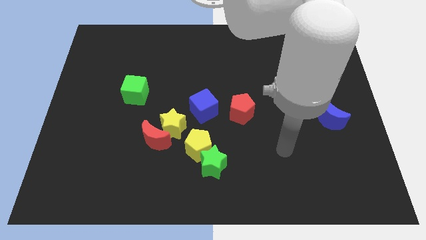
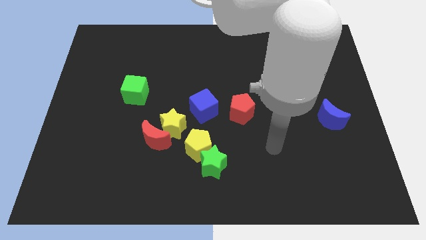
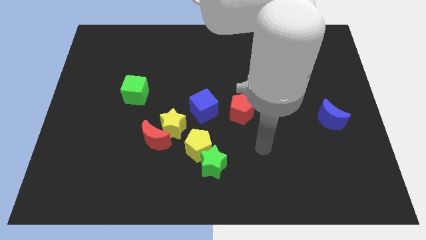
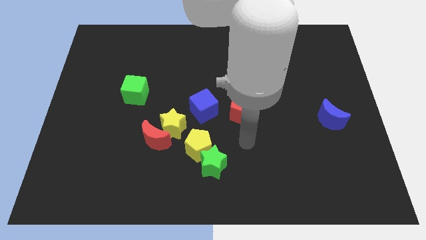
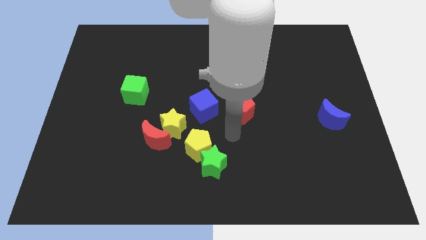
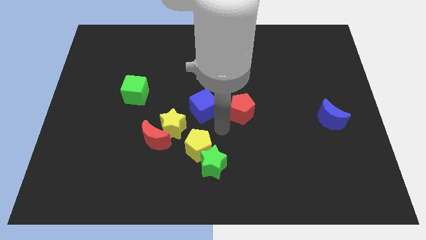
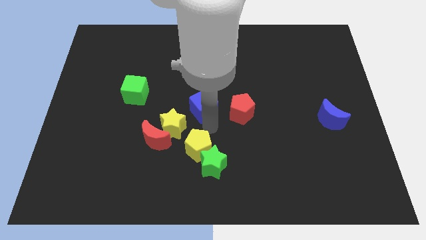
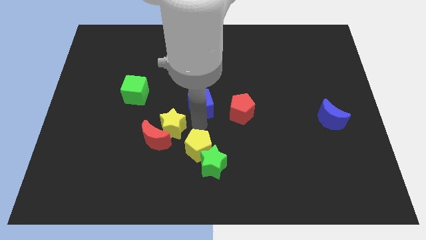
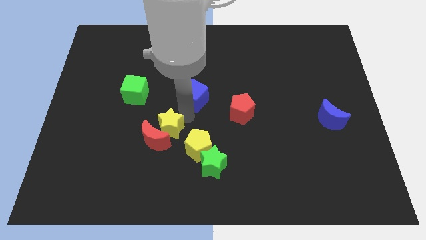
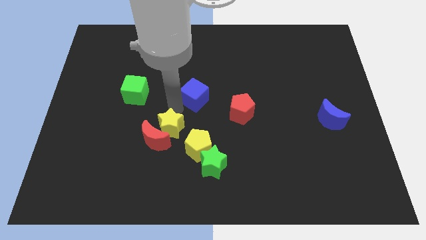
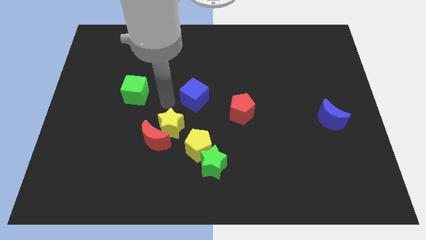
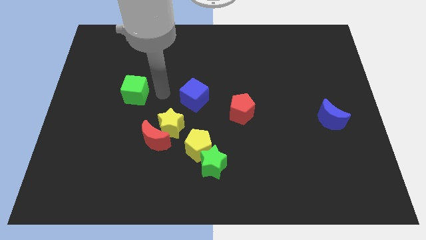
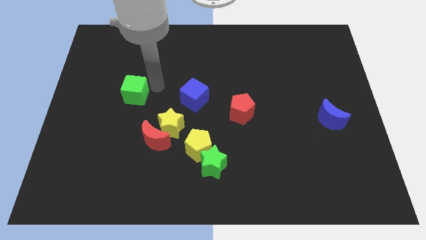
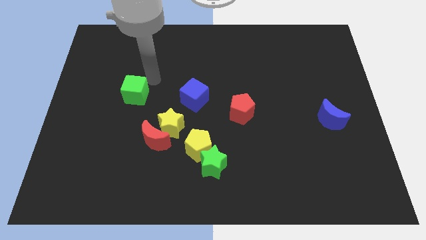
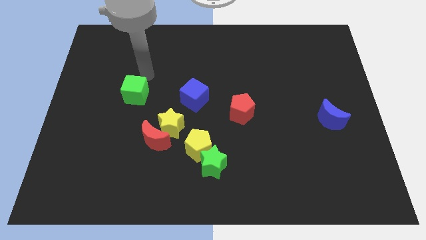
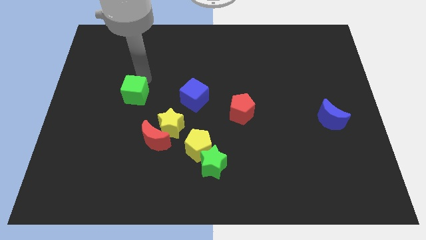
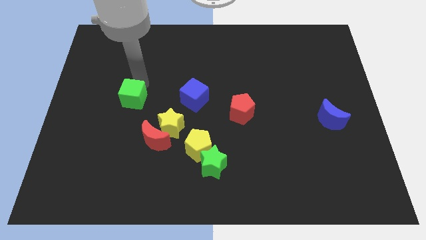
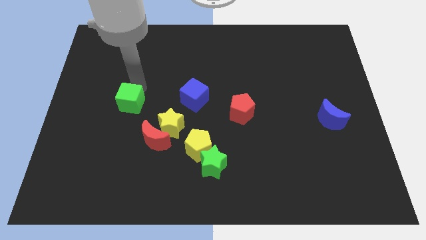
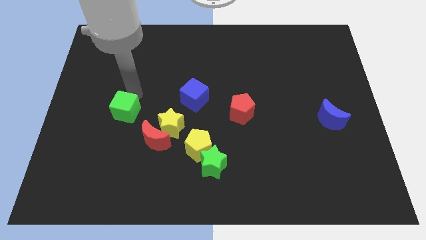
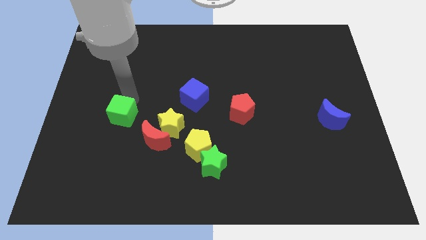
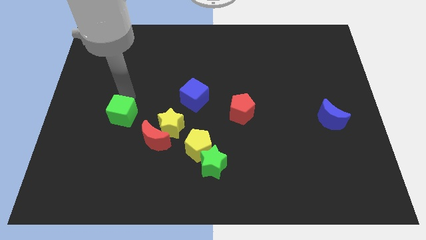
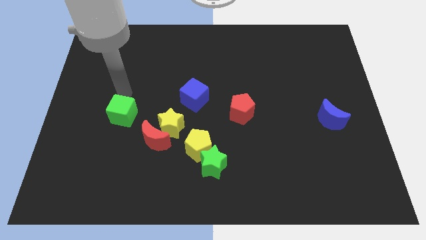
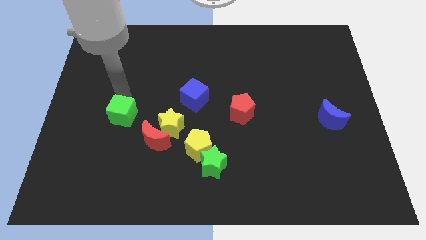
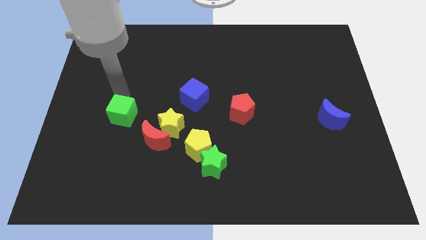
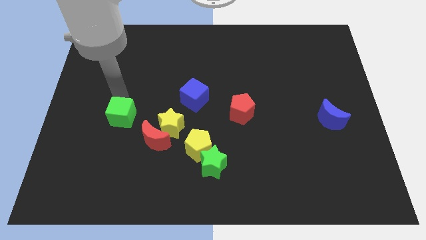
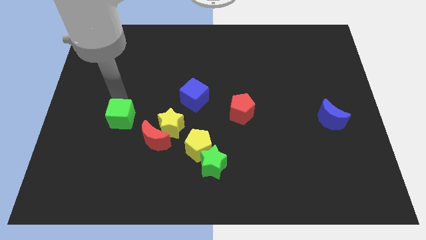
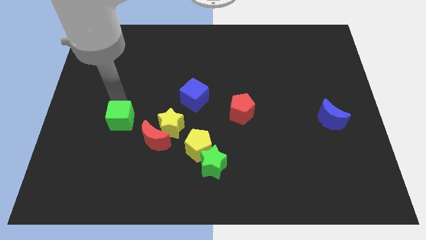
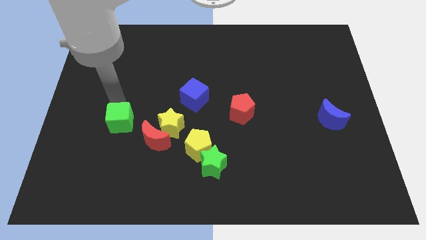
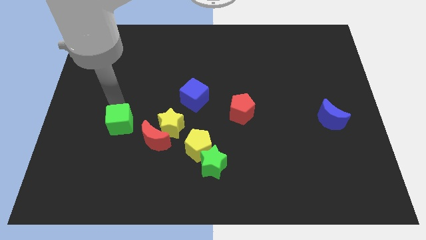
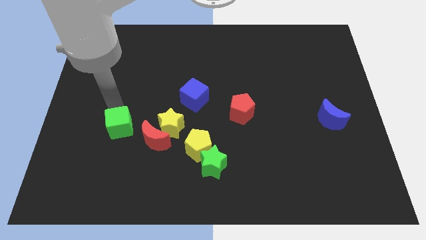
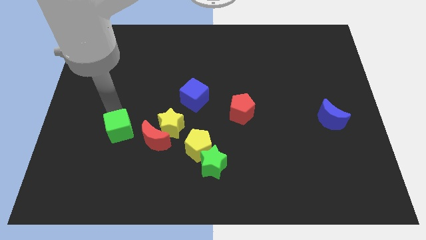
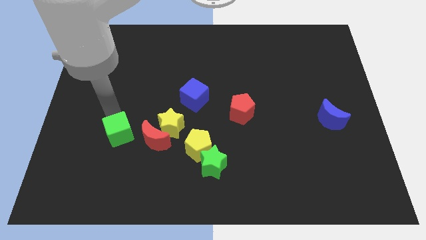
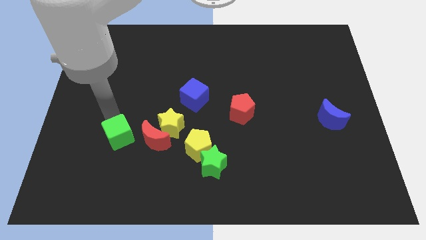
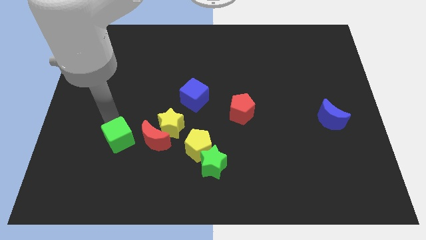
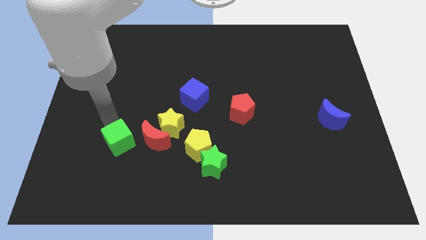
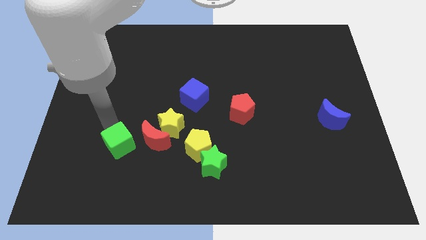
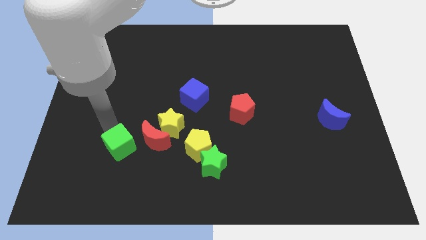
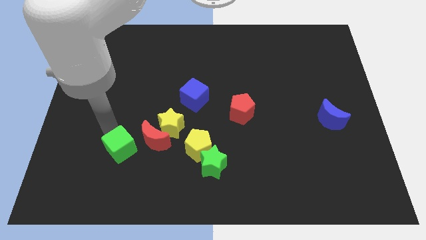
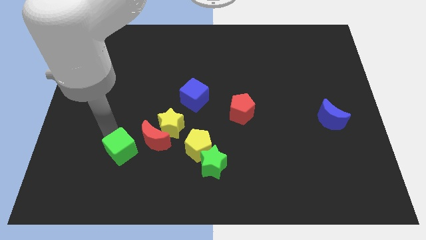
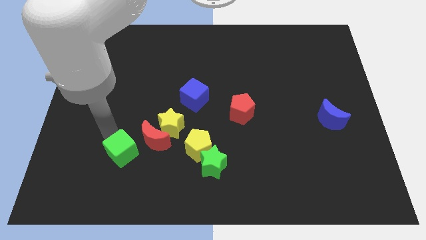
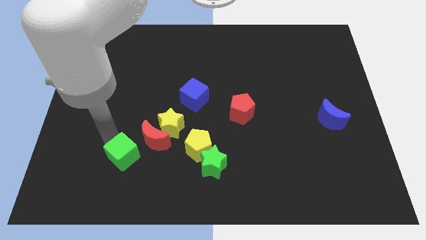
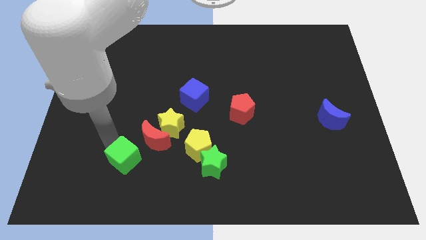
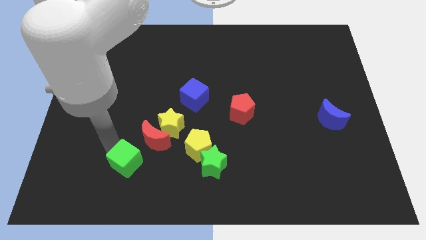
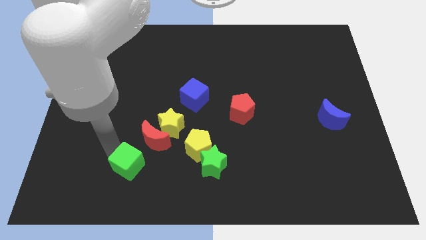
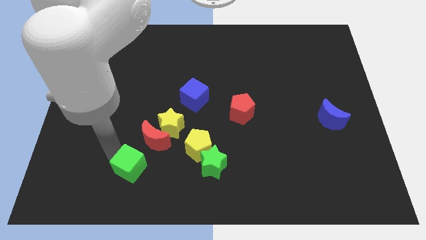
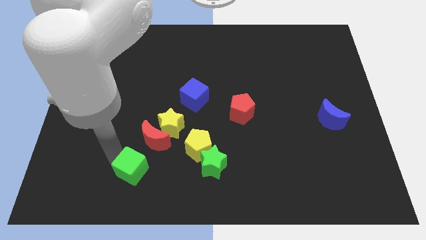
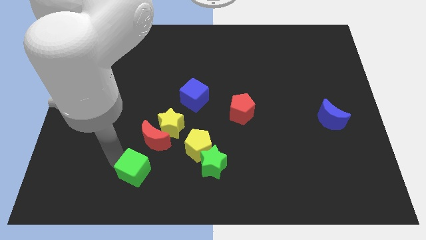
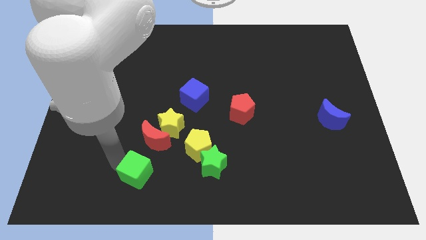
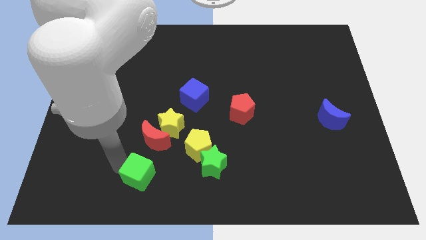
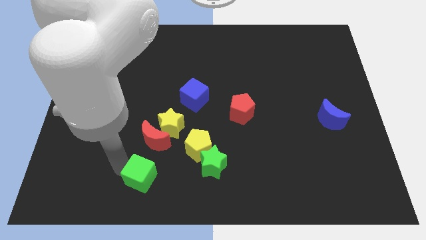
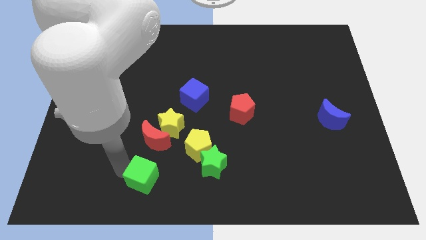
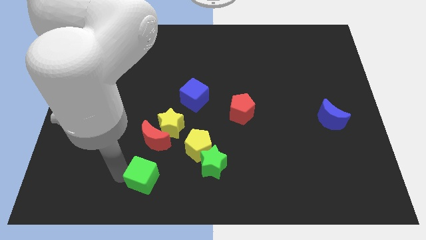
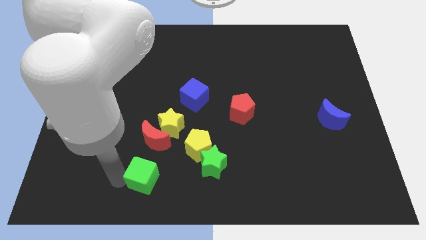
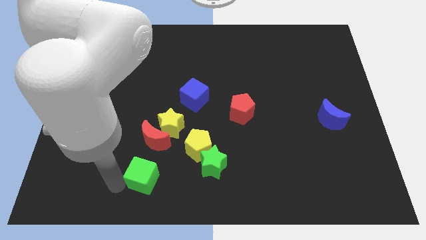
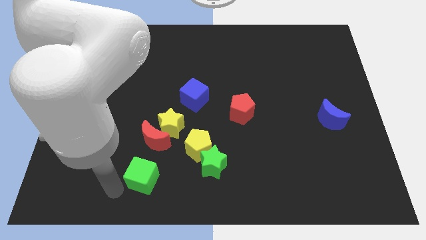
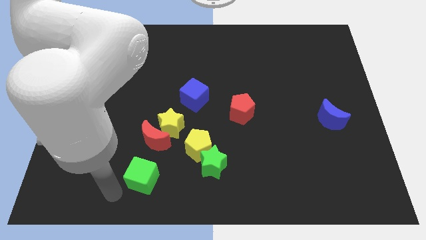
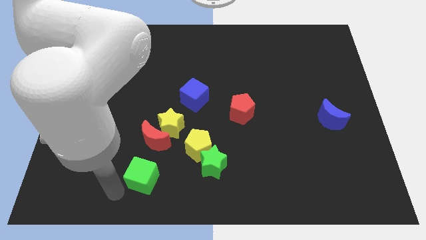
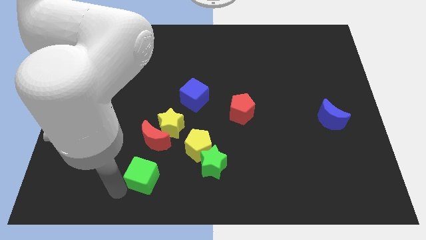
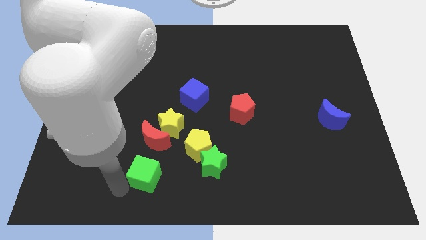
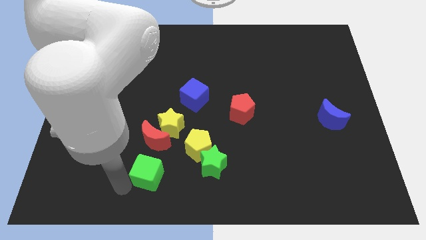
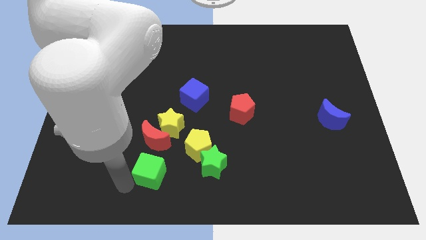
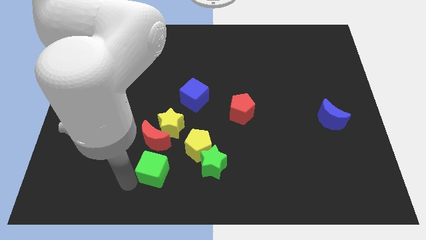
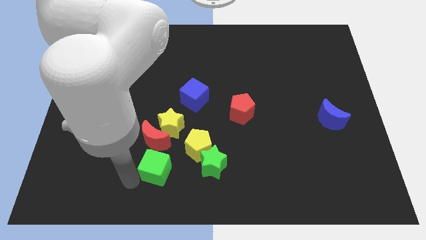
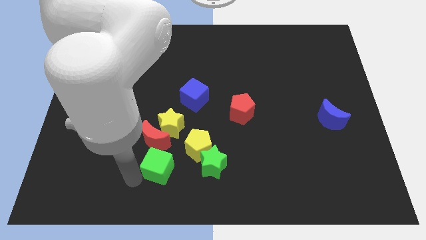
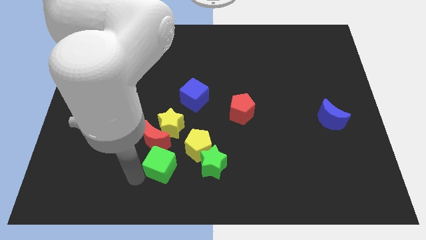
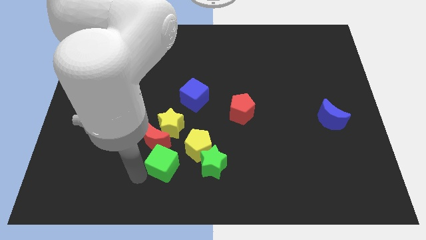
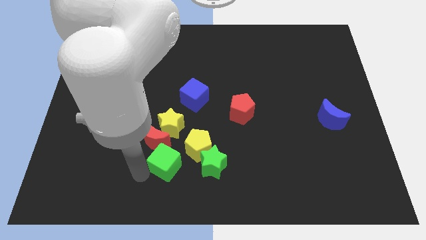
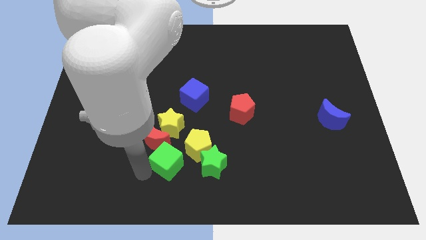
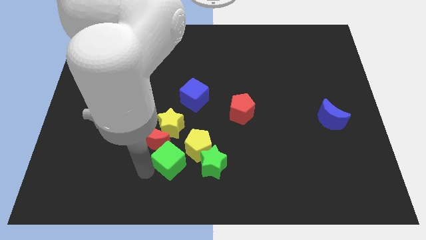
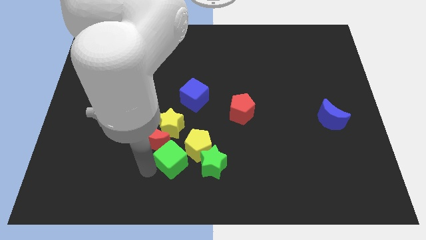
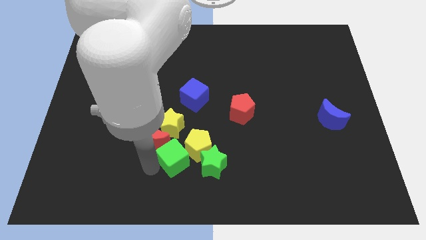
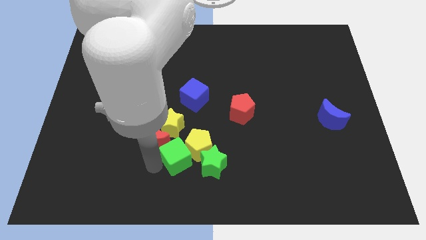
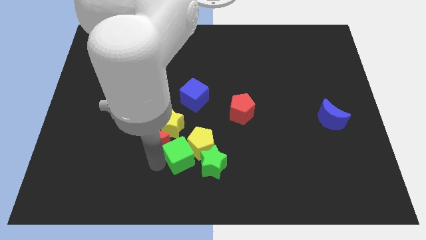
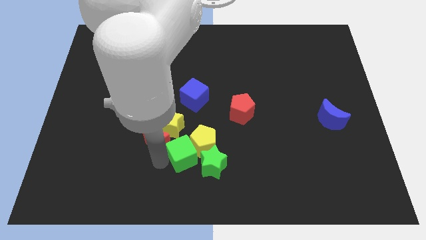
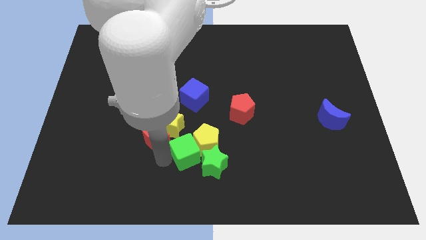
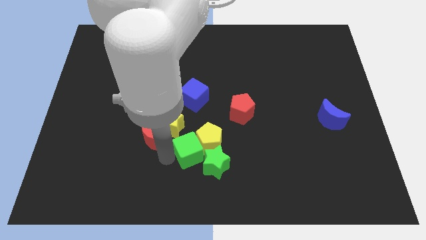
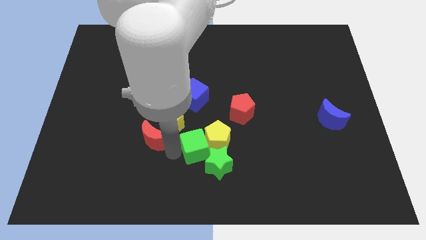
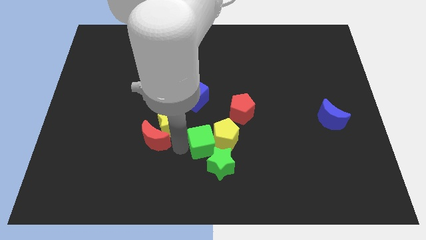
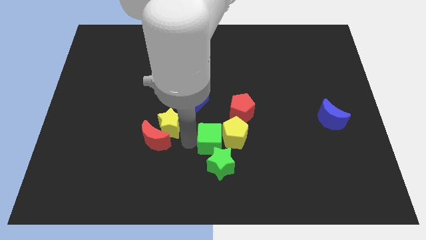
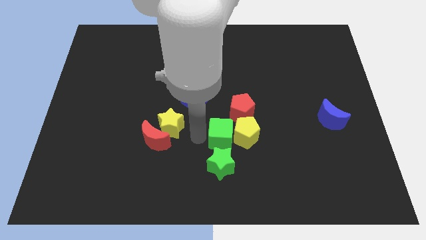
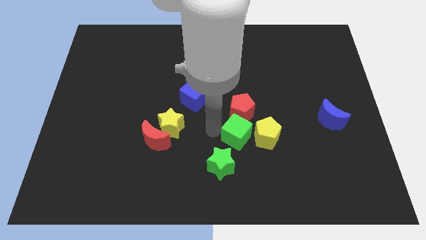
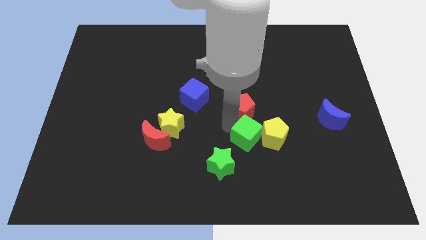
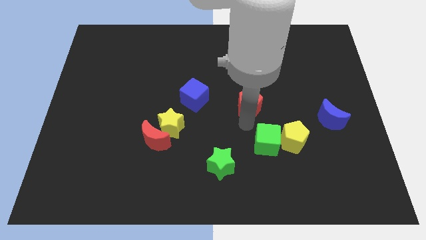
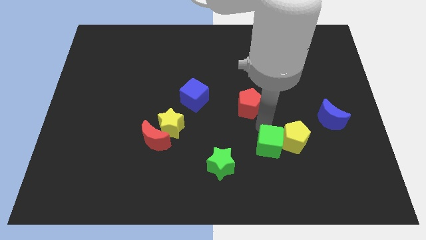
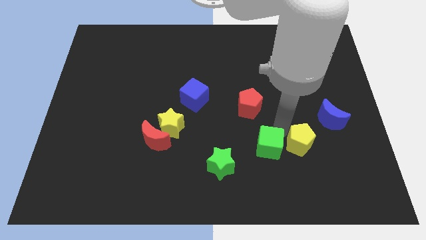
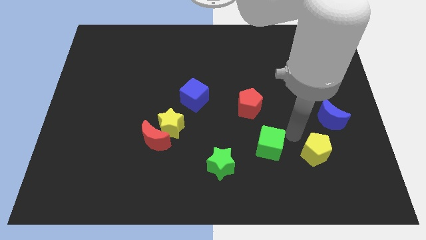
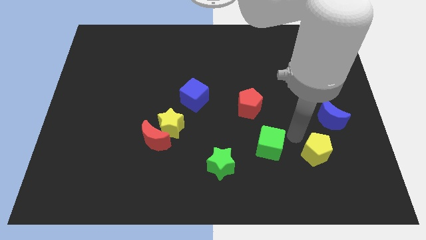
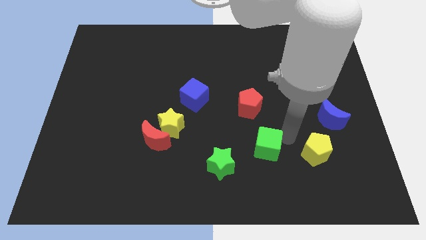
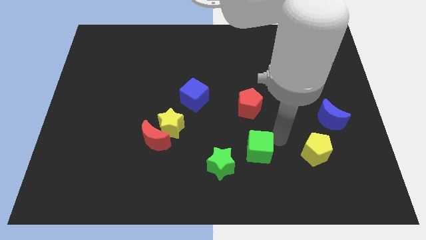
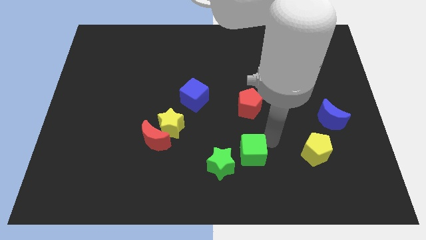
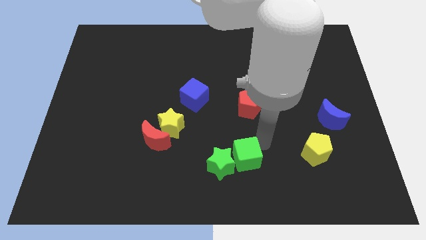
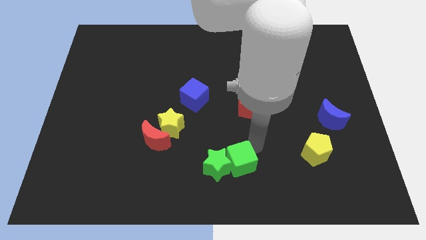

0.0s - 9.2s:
slide the green cube to the bottom
